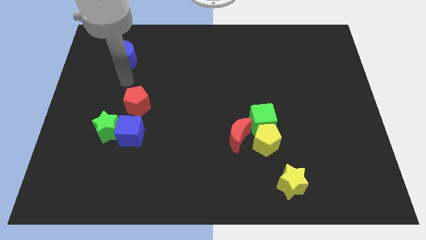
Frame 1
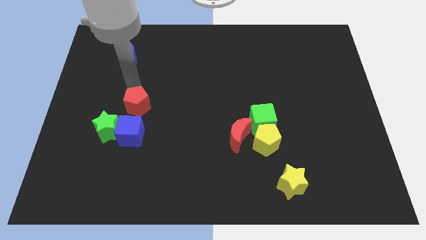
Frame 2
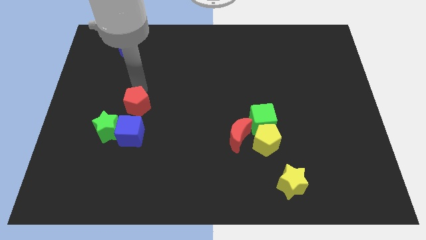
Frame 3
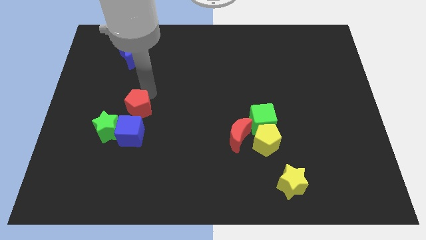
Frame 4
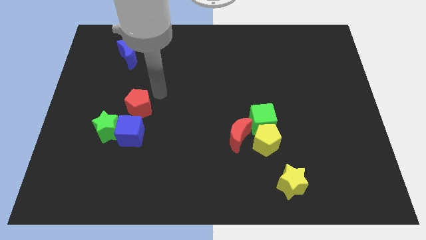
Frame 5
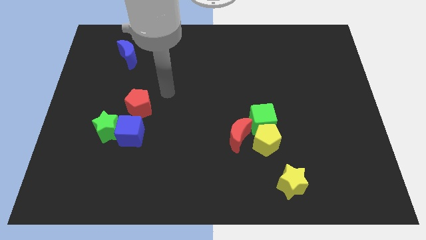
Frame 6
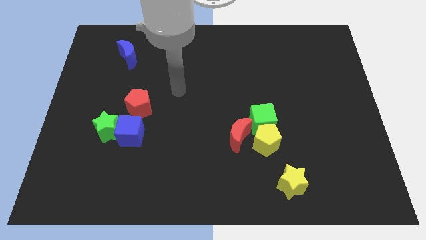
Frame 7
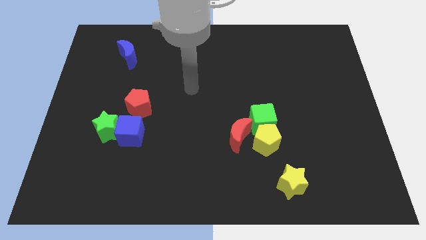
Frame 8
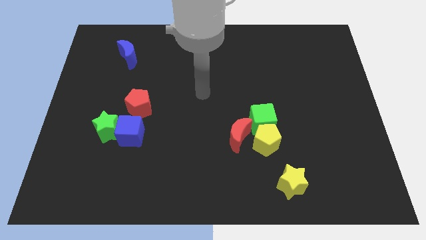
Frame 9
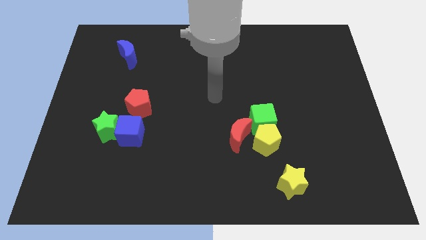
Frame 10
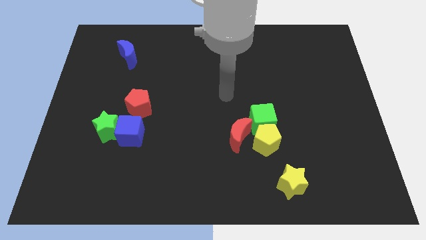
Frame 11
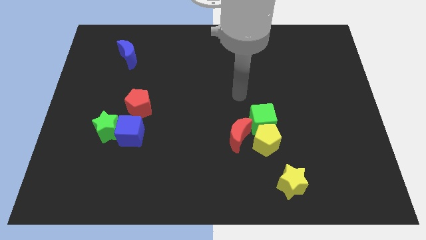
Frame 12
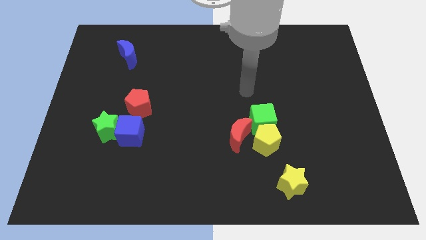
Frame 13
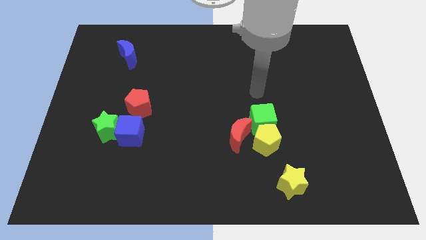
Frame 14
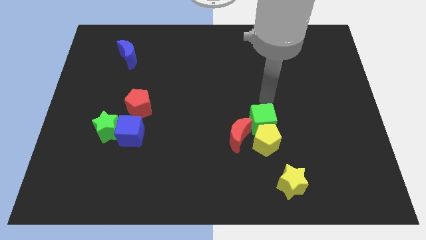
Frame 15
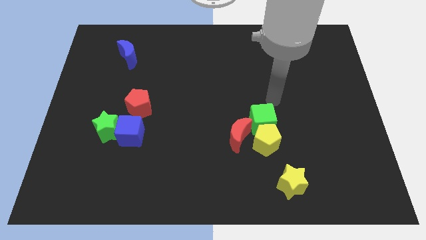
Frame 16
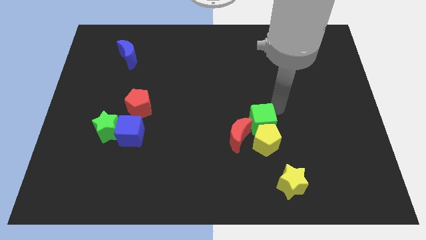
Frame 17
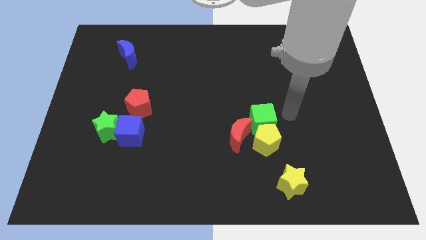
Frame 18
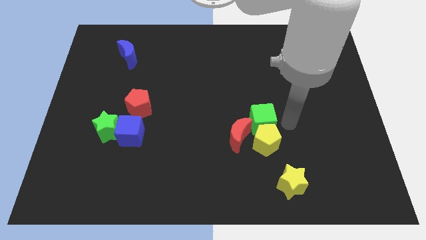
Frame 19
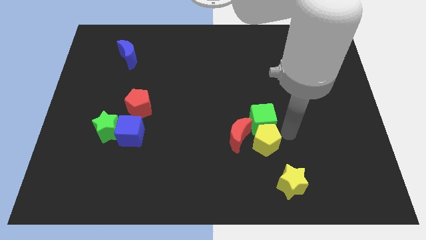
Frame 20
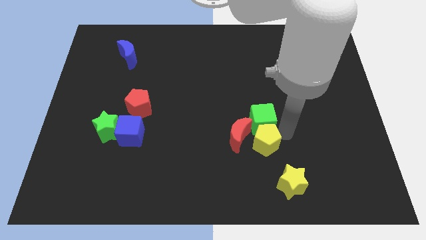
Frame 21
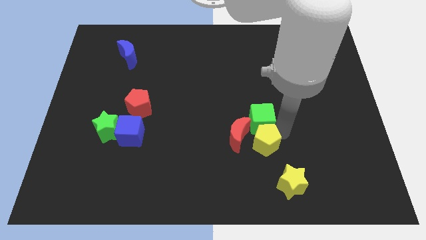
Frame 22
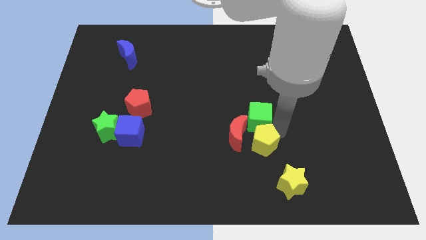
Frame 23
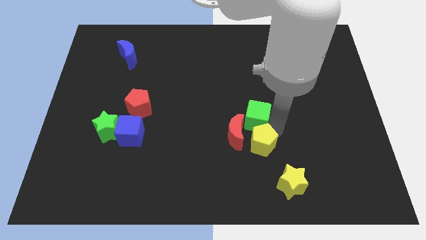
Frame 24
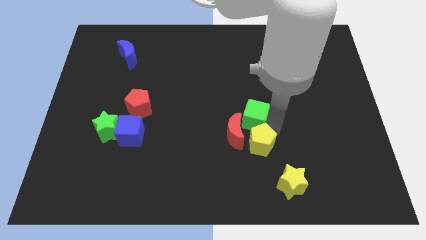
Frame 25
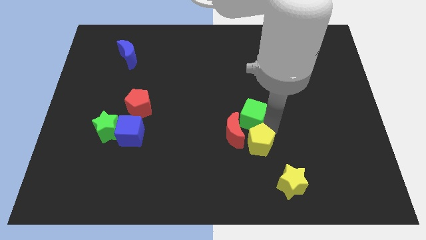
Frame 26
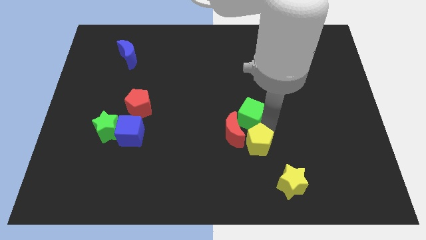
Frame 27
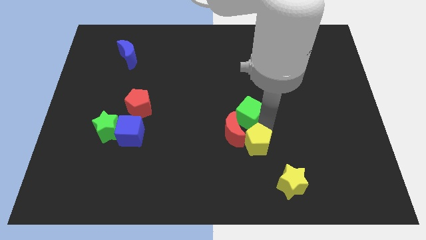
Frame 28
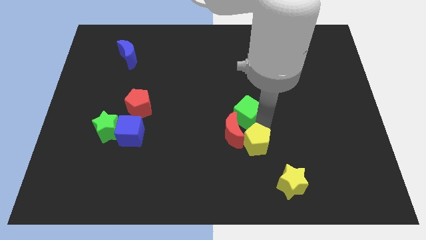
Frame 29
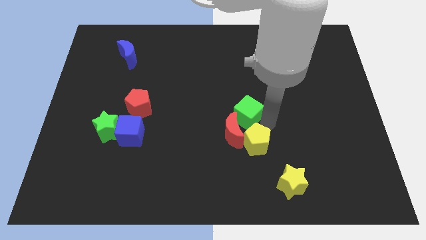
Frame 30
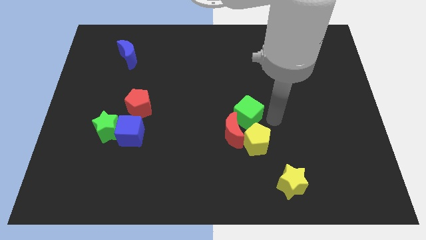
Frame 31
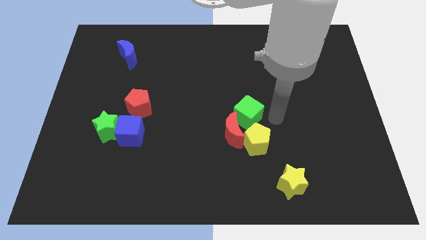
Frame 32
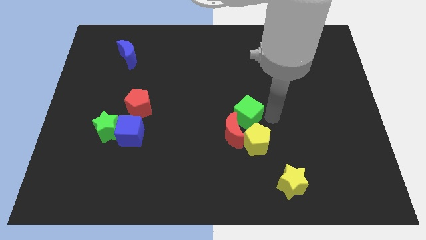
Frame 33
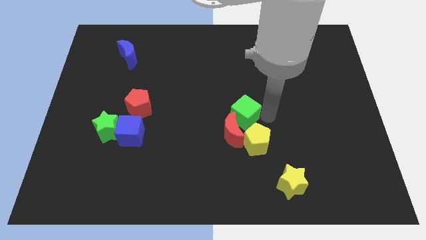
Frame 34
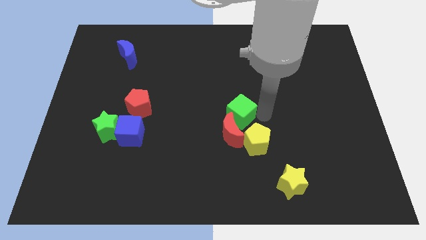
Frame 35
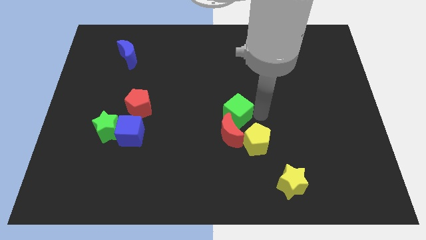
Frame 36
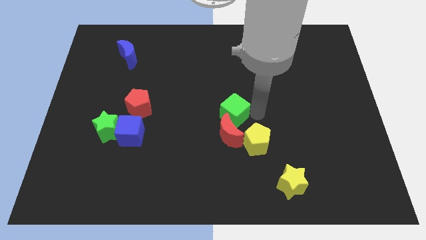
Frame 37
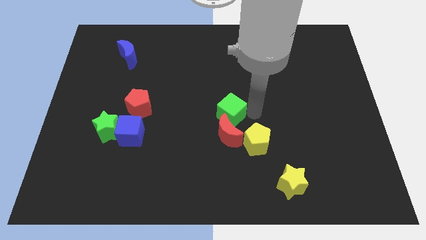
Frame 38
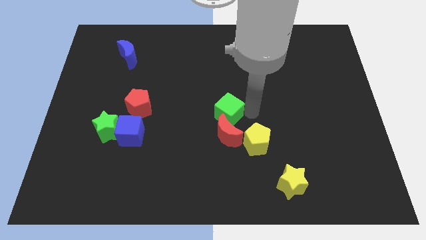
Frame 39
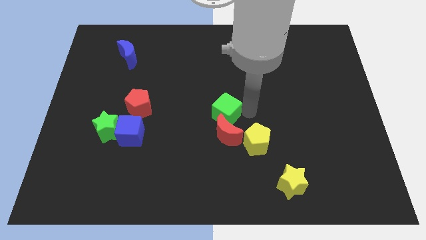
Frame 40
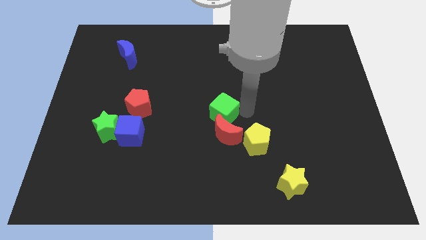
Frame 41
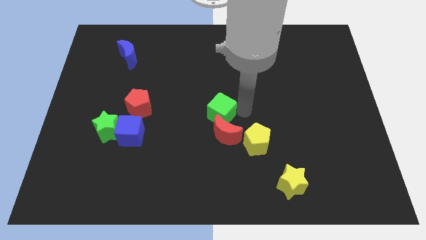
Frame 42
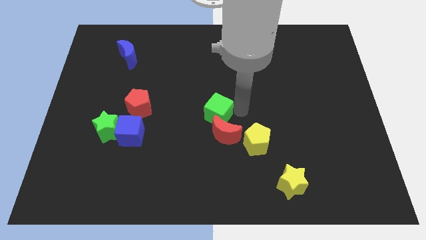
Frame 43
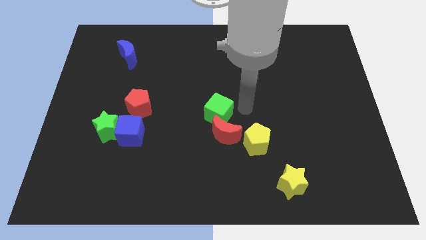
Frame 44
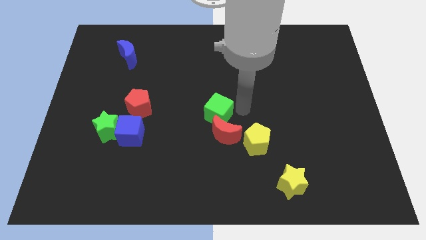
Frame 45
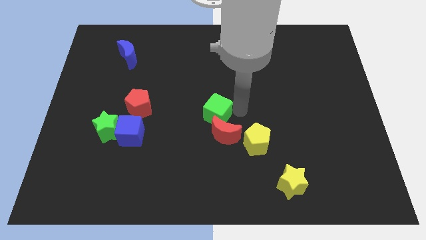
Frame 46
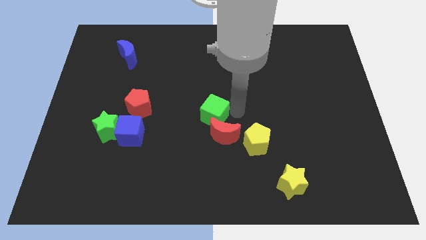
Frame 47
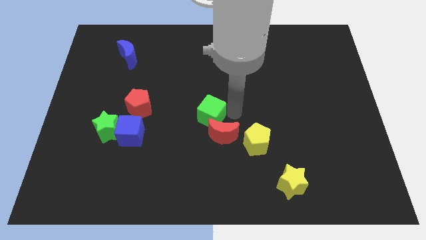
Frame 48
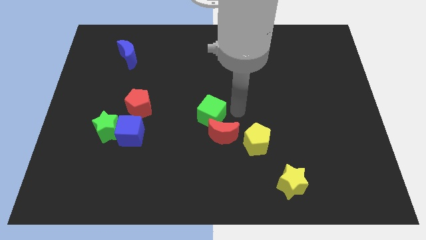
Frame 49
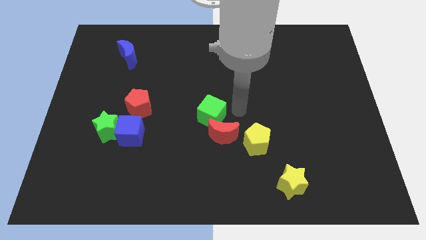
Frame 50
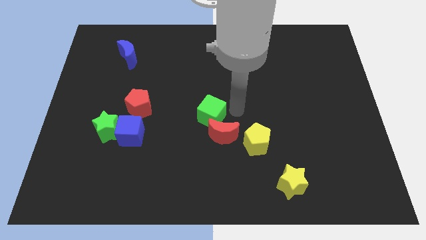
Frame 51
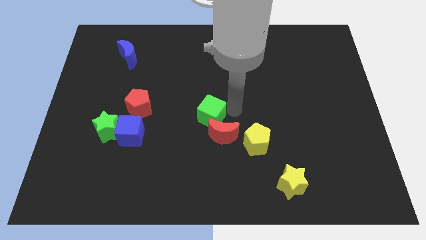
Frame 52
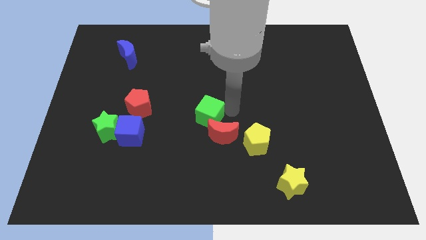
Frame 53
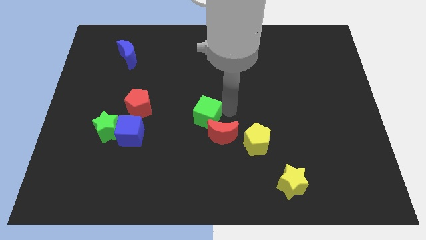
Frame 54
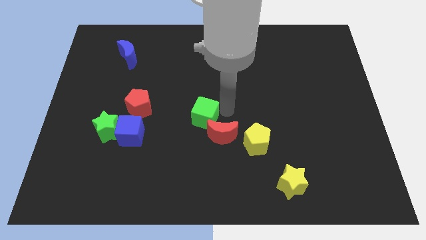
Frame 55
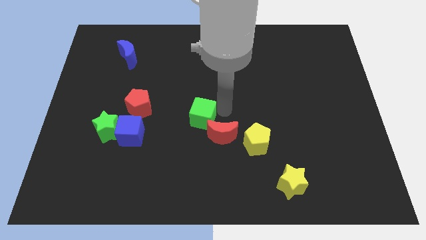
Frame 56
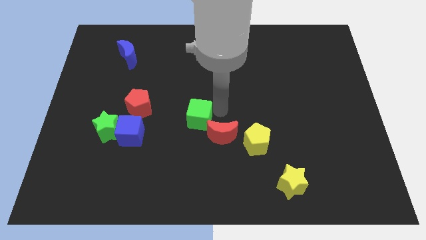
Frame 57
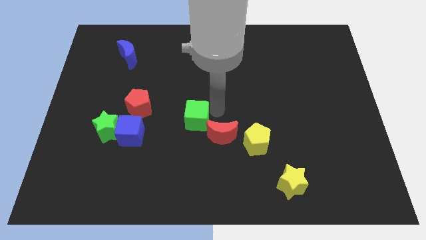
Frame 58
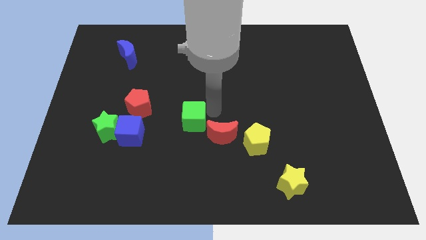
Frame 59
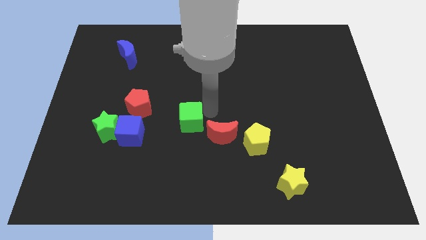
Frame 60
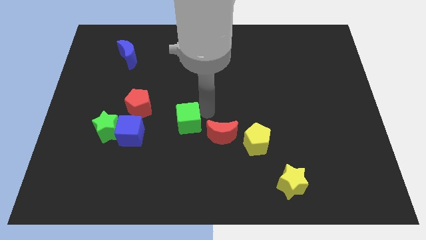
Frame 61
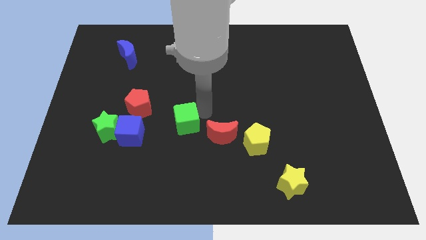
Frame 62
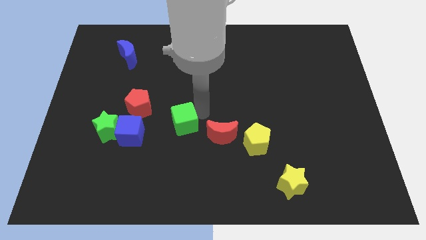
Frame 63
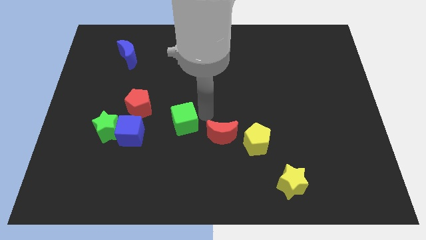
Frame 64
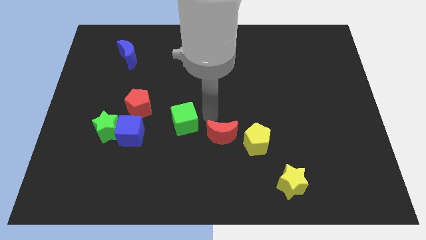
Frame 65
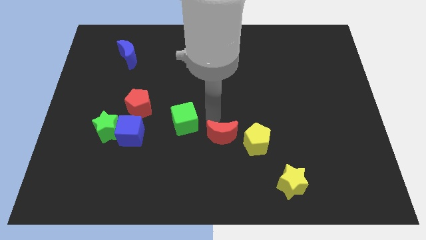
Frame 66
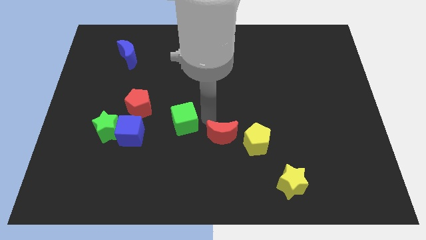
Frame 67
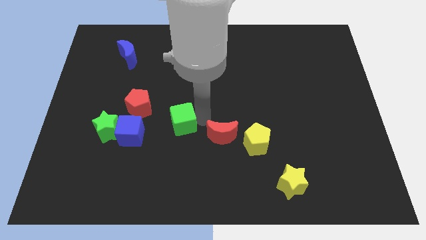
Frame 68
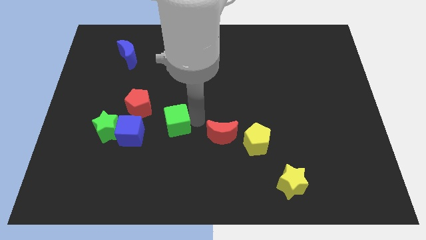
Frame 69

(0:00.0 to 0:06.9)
move the green cube right of the green star

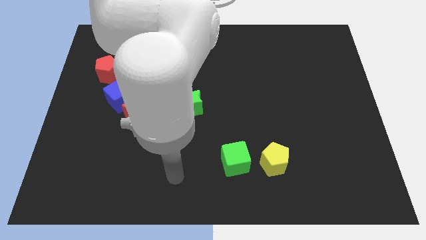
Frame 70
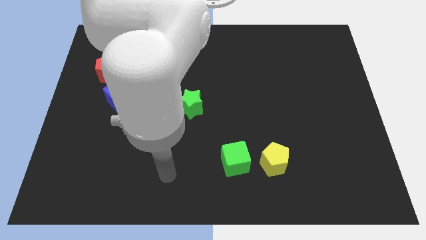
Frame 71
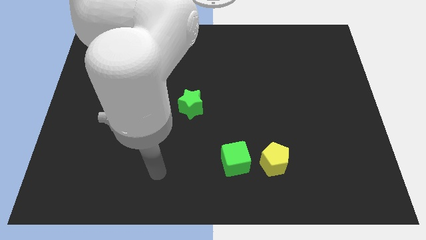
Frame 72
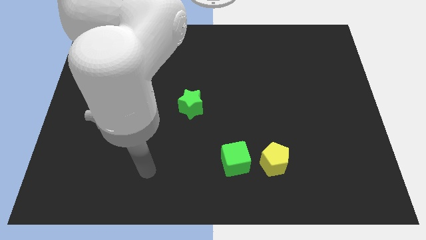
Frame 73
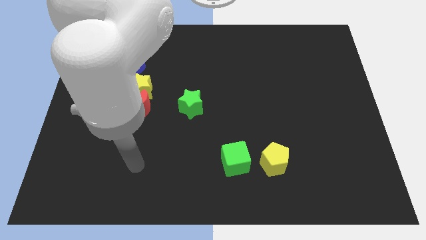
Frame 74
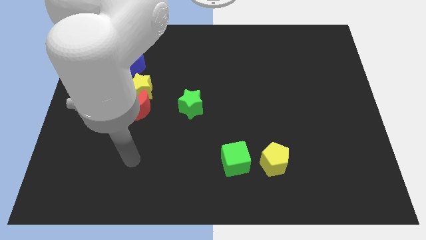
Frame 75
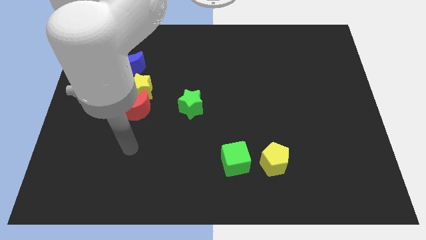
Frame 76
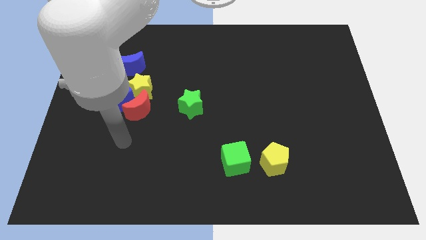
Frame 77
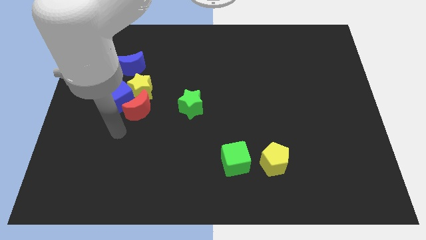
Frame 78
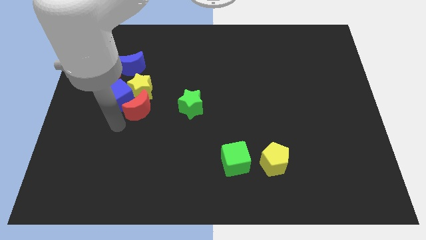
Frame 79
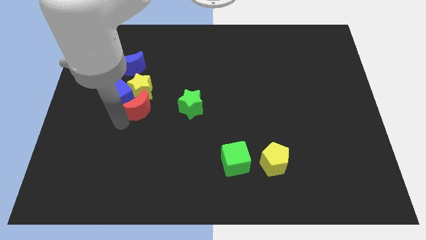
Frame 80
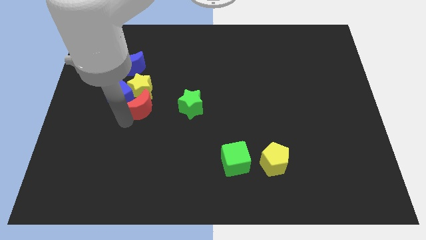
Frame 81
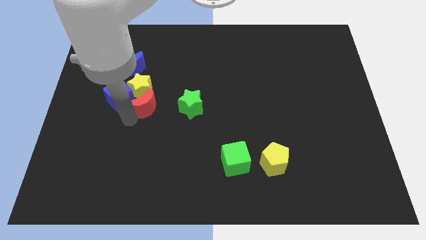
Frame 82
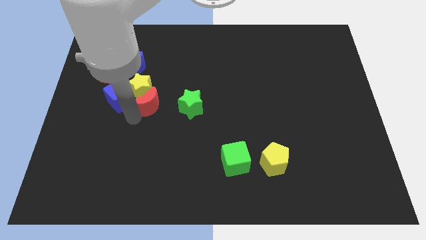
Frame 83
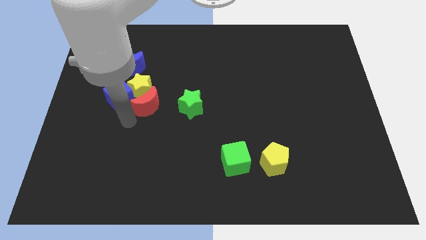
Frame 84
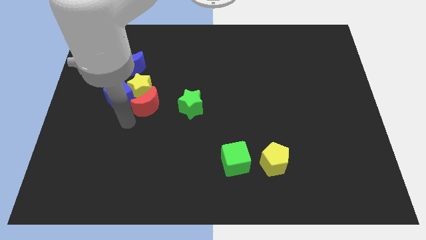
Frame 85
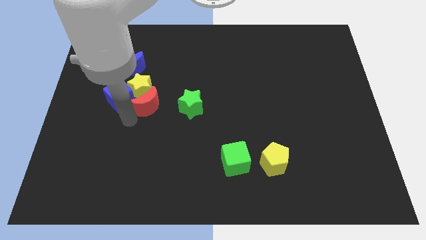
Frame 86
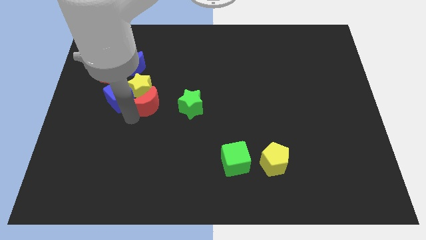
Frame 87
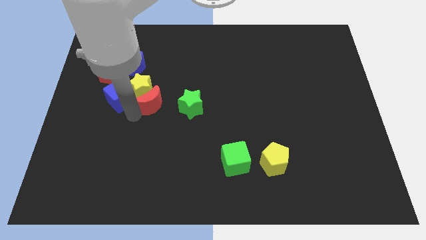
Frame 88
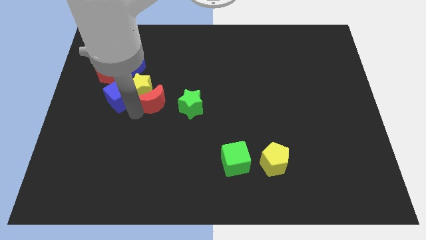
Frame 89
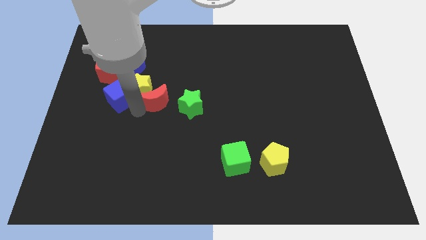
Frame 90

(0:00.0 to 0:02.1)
slide the red moon to the top left of the green star
